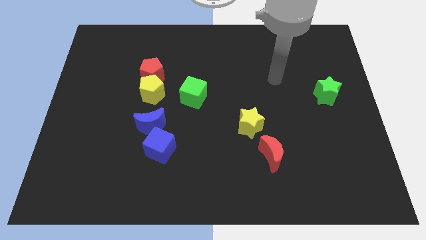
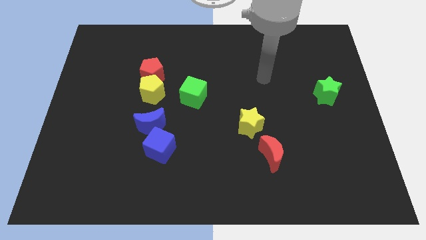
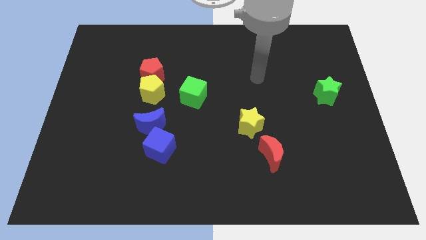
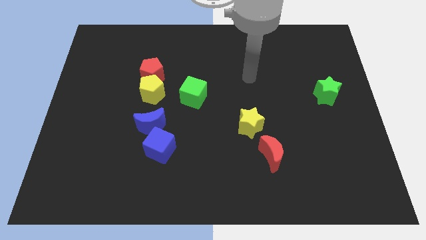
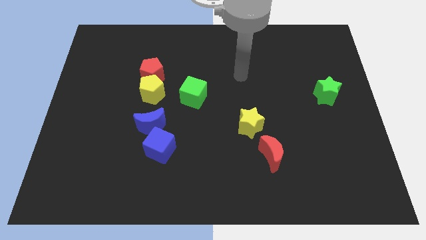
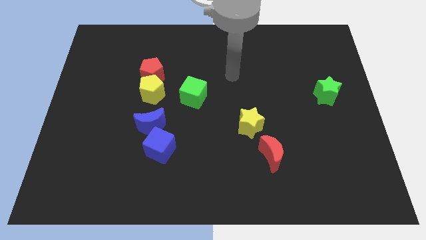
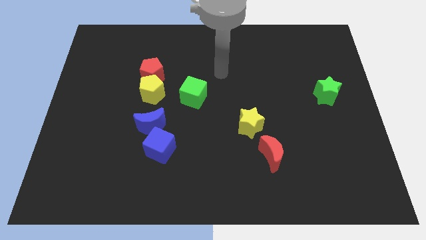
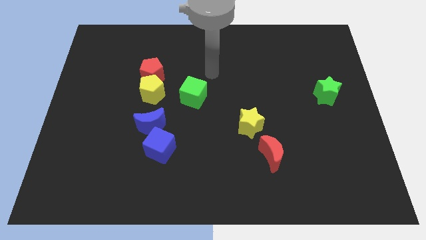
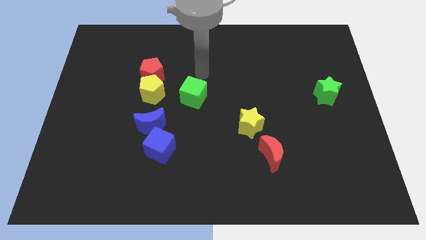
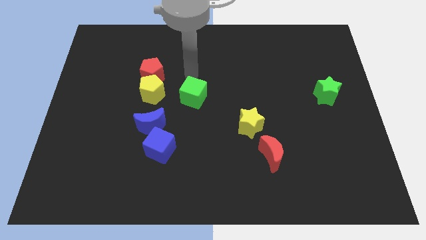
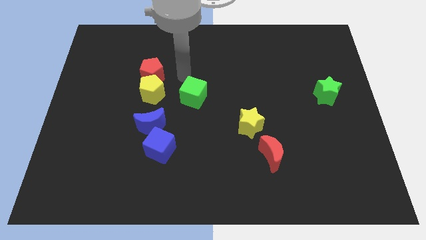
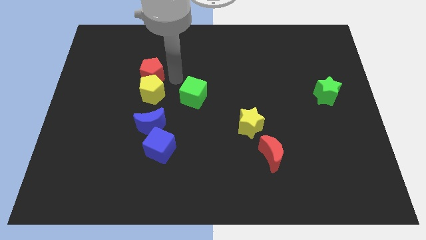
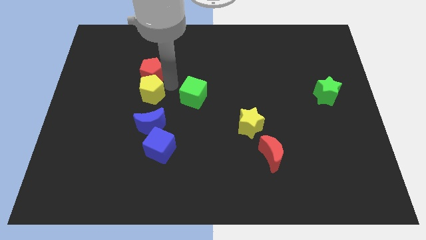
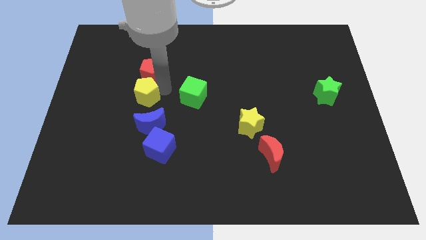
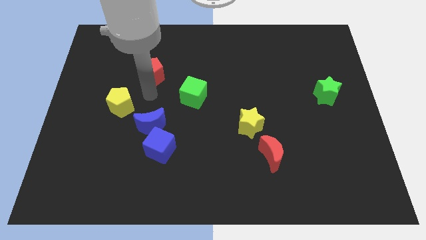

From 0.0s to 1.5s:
move the red pentagon away from the yellow pentagon

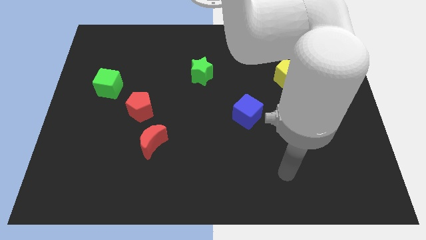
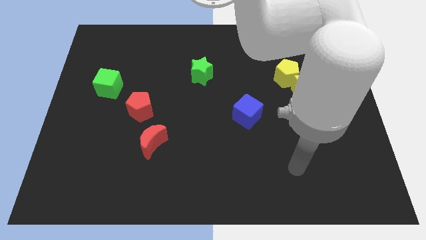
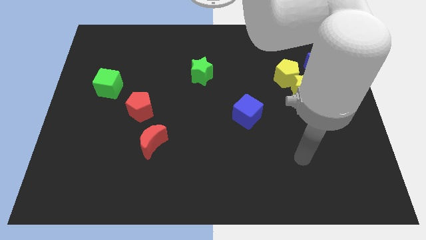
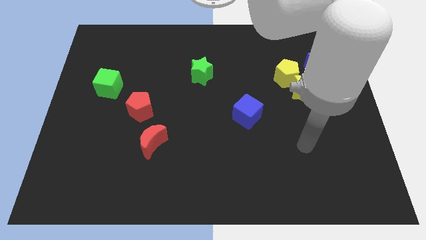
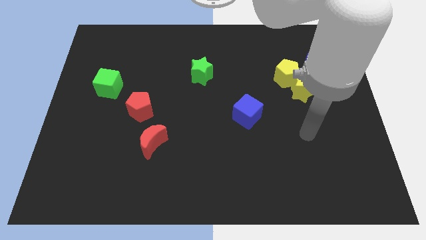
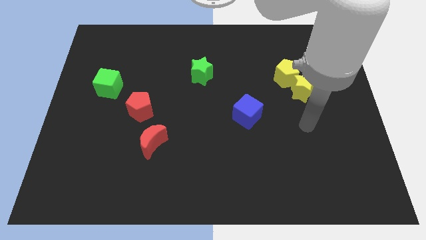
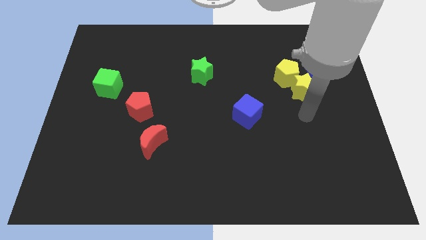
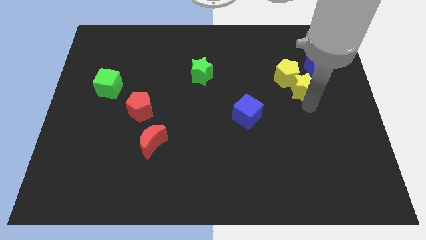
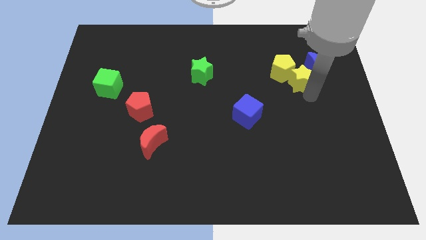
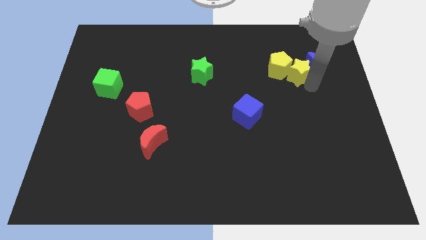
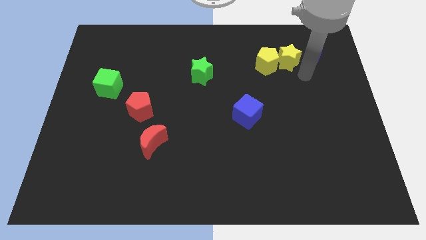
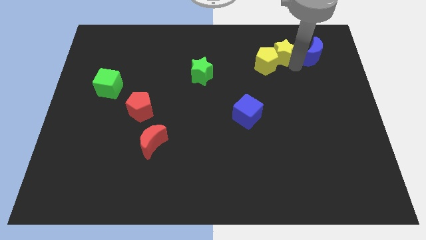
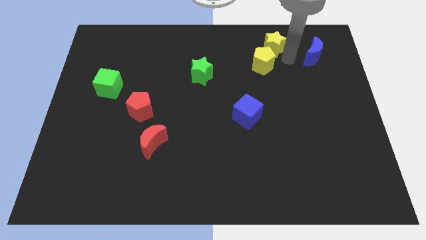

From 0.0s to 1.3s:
separate the yellow pentagon from the yellow star and blue moon

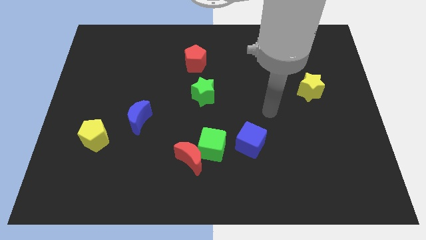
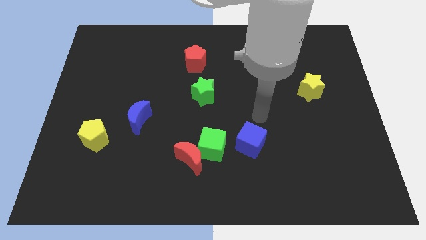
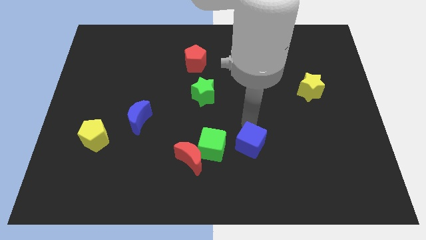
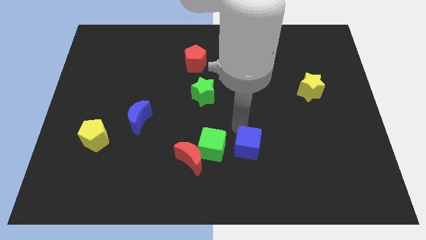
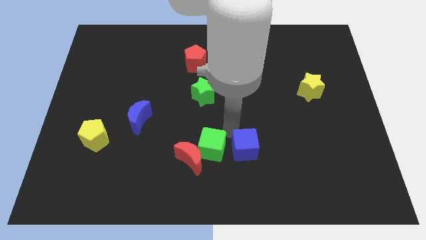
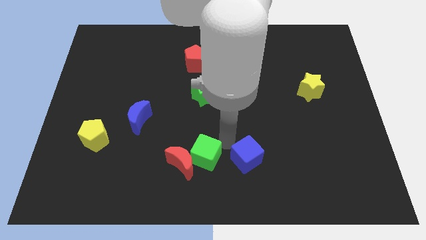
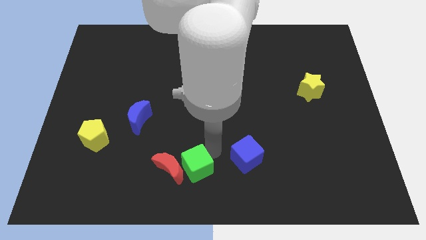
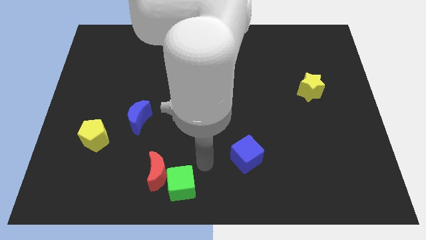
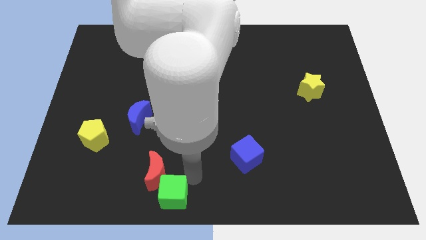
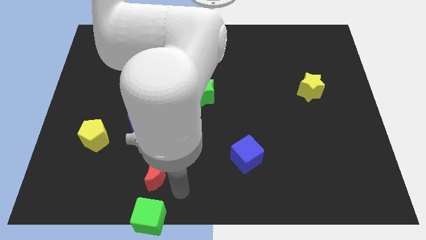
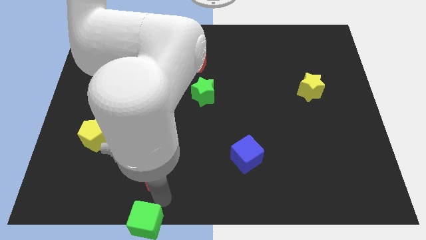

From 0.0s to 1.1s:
move the red moon away from the green cube

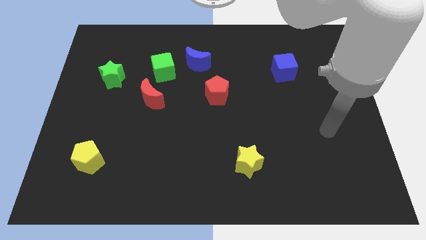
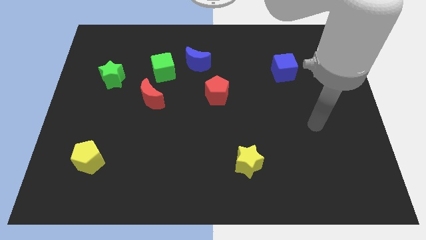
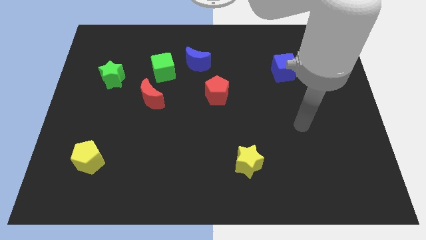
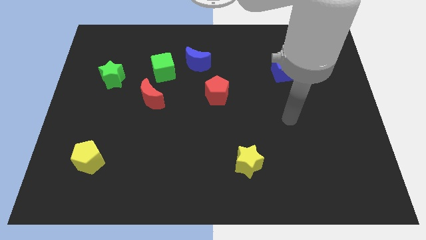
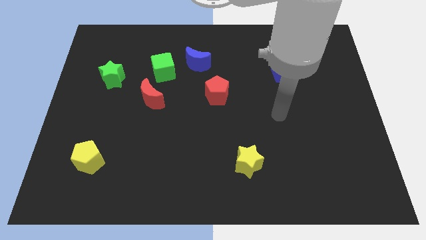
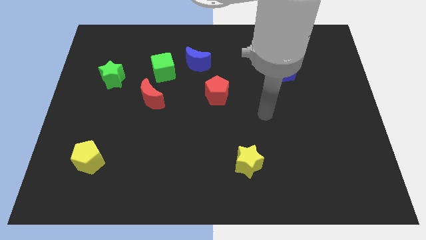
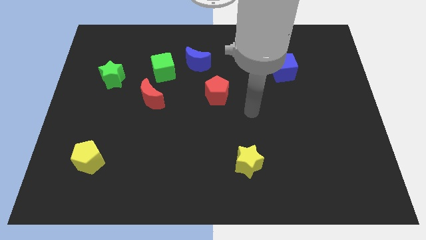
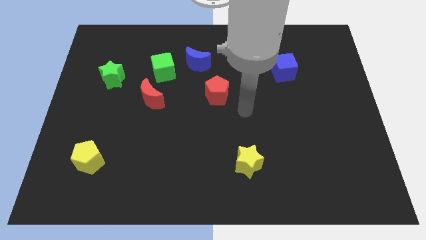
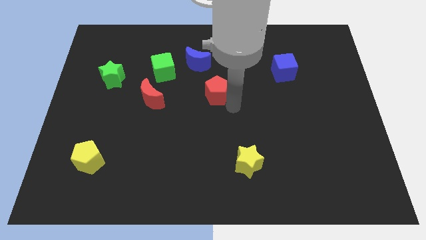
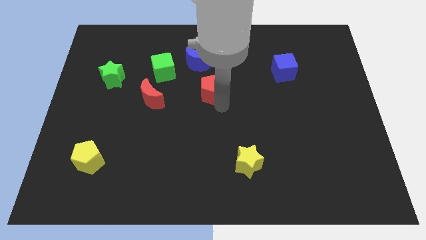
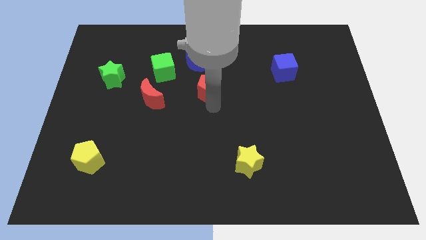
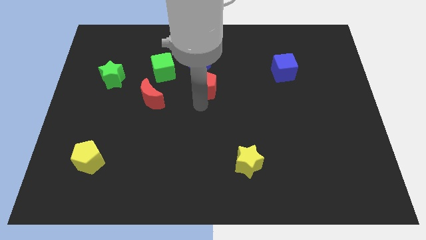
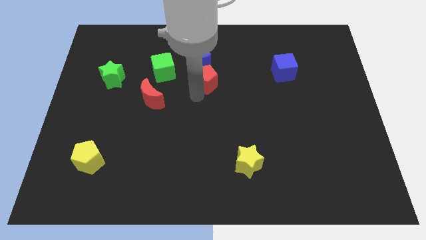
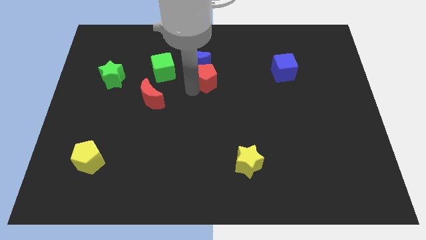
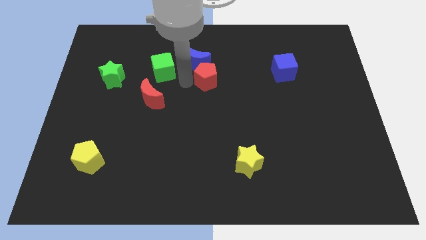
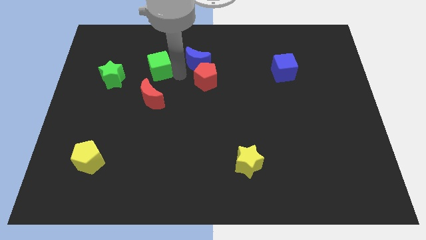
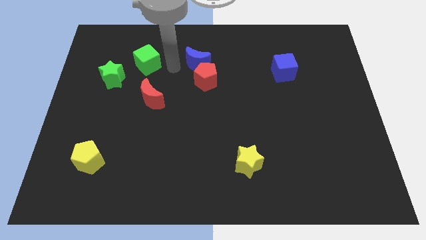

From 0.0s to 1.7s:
separate the blue moon from the green cube

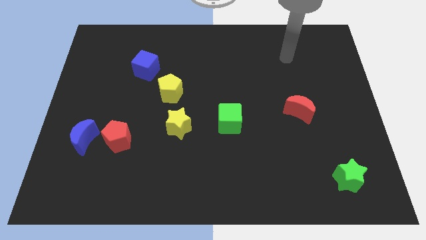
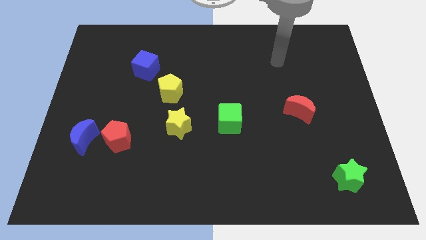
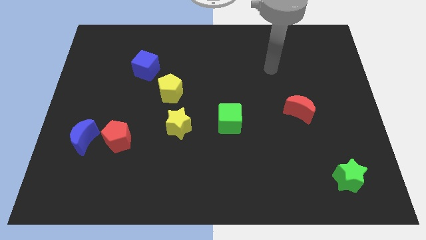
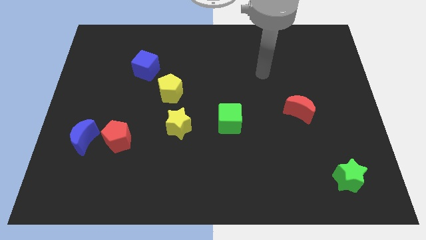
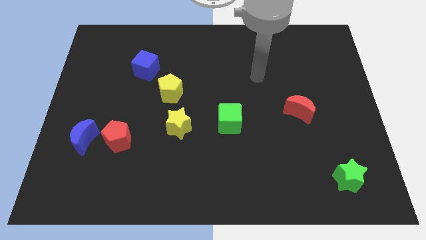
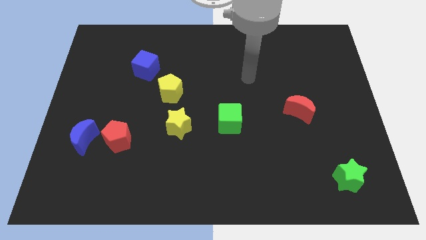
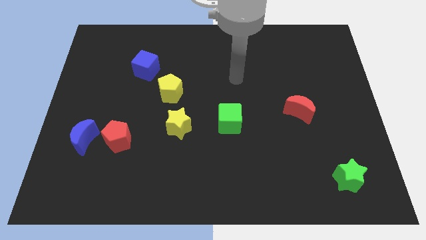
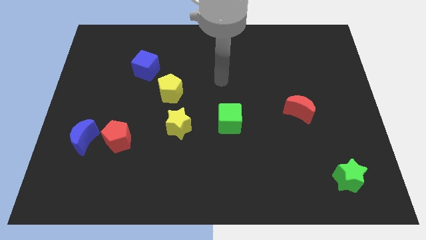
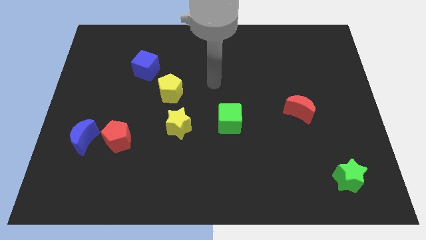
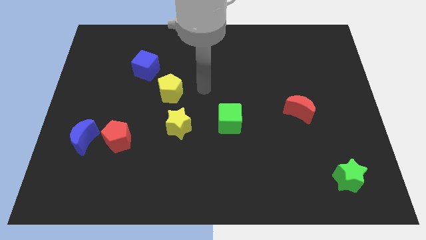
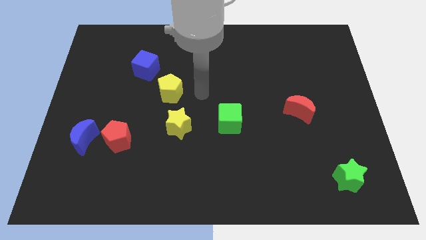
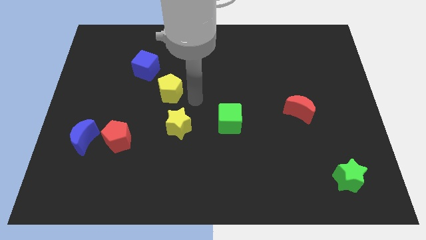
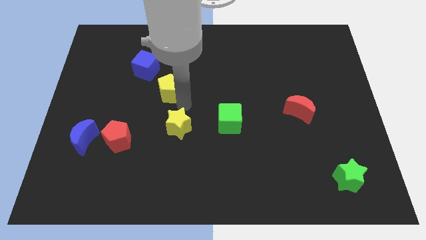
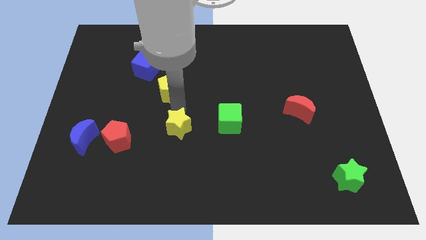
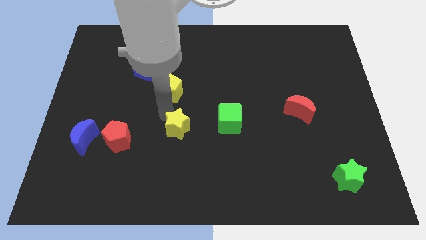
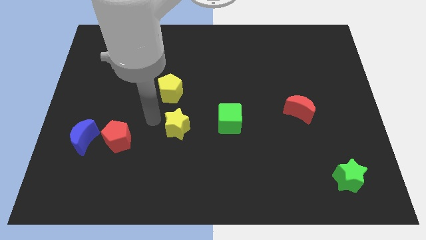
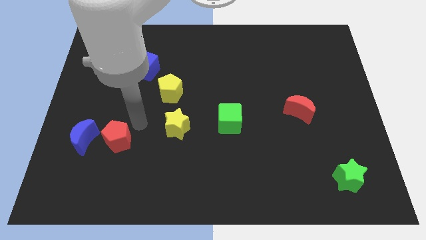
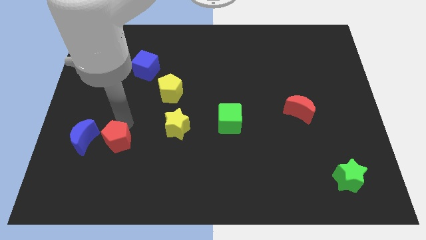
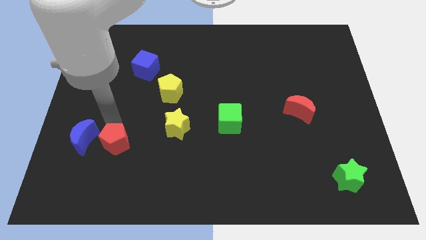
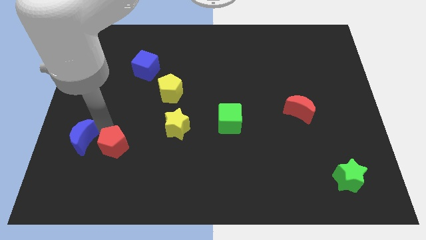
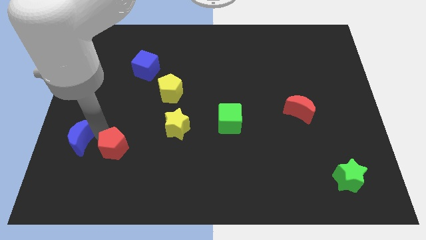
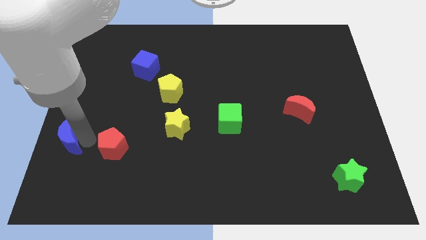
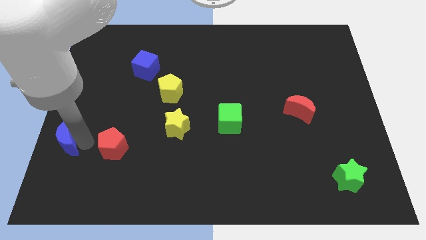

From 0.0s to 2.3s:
pull the red pentagon apart from the blue moon

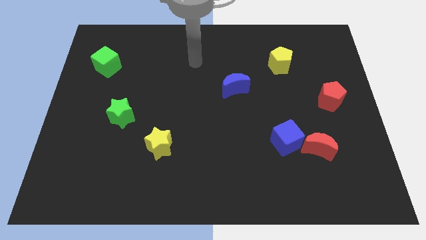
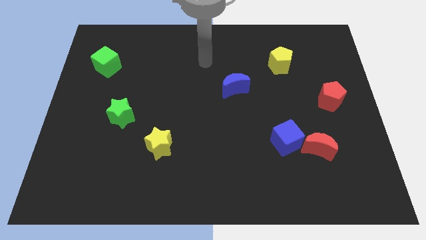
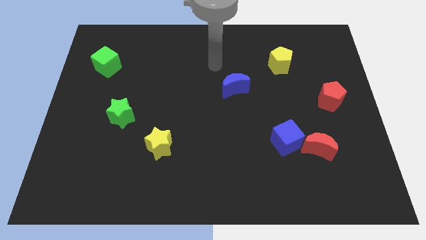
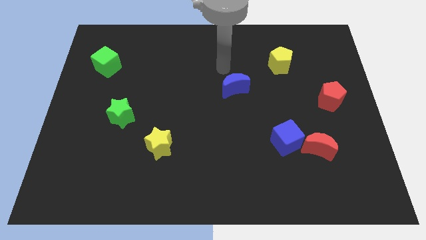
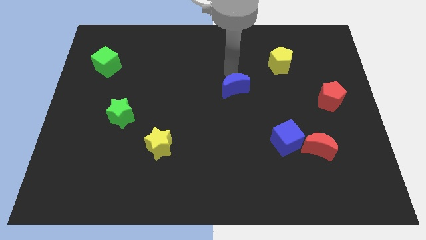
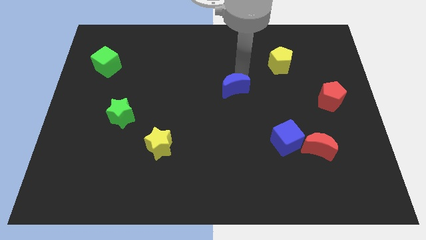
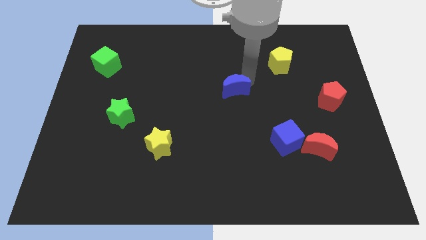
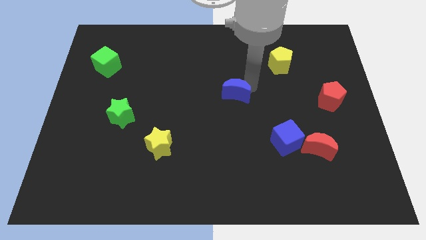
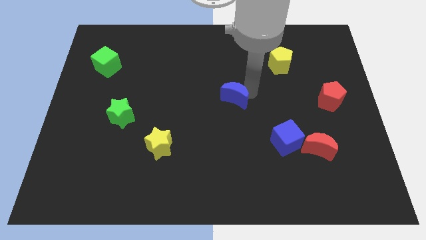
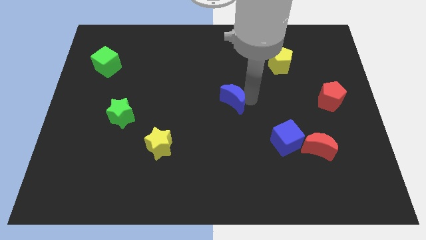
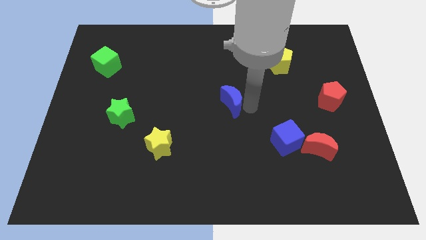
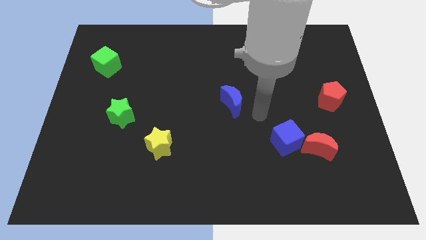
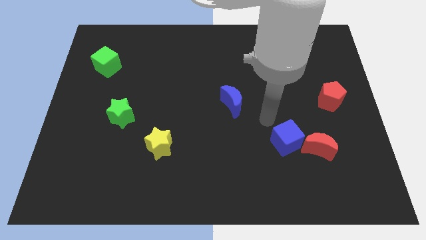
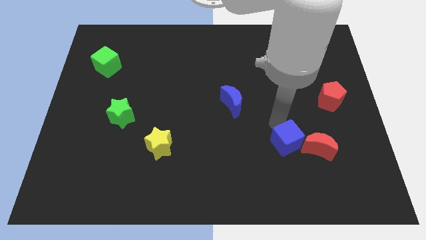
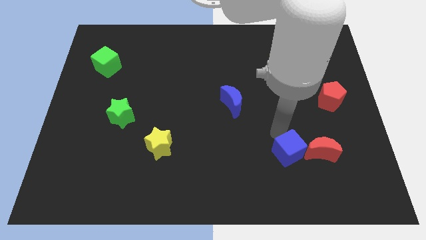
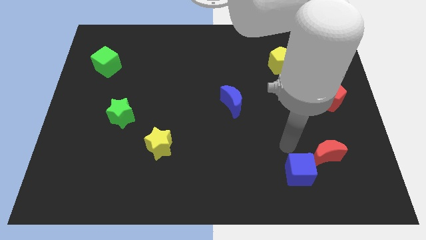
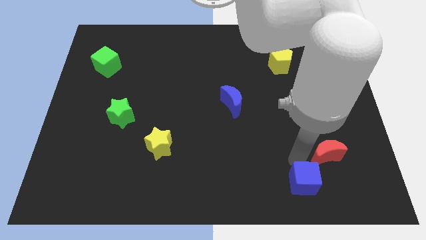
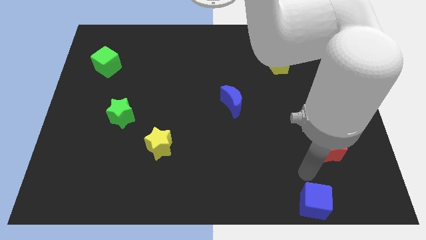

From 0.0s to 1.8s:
pull the red moon apart from the blue cube
